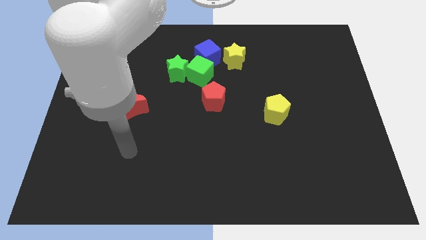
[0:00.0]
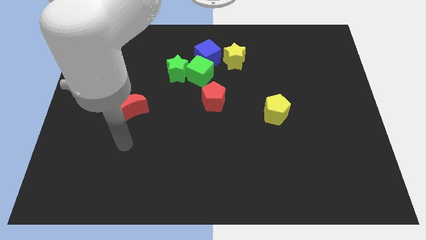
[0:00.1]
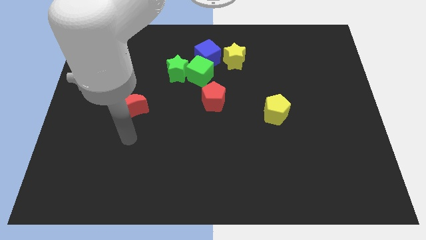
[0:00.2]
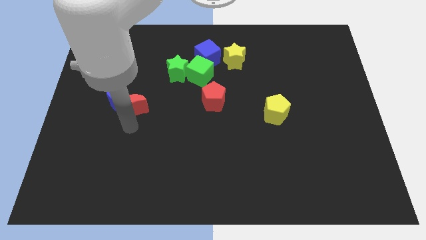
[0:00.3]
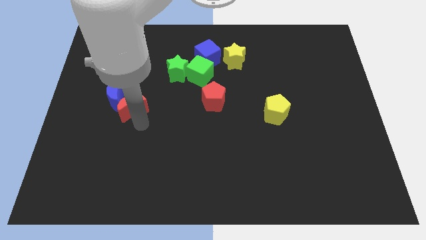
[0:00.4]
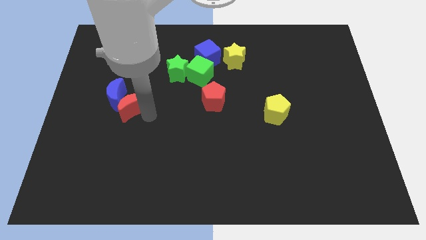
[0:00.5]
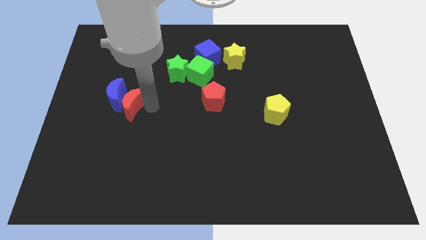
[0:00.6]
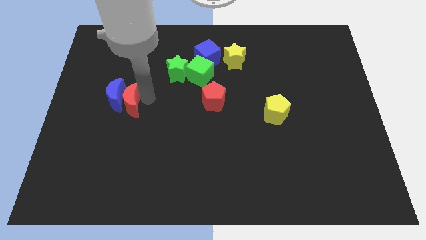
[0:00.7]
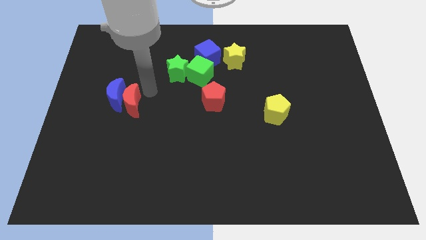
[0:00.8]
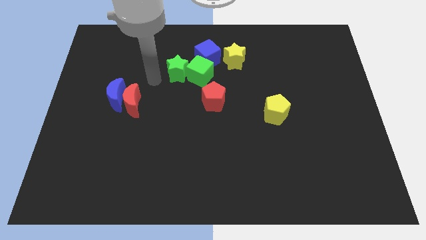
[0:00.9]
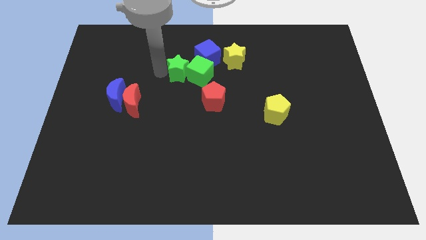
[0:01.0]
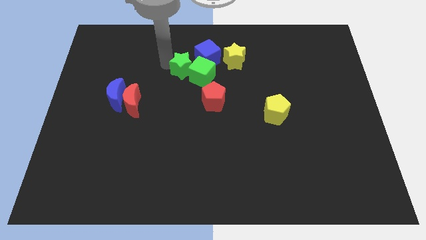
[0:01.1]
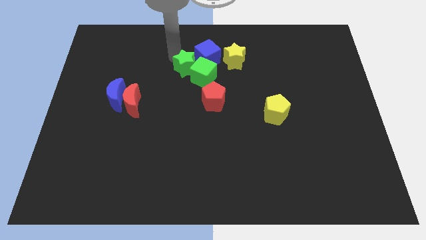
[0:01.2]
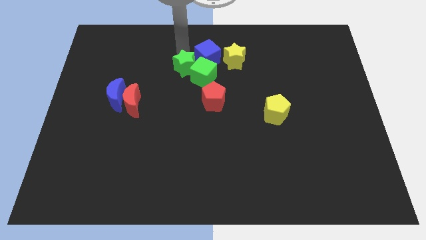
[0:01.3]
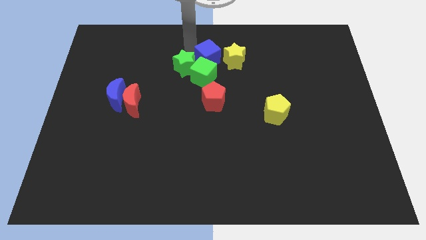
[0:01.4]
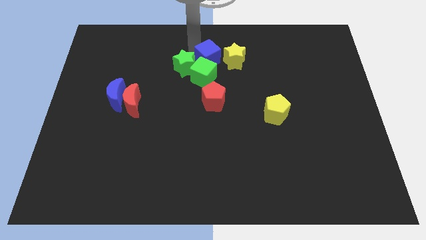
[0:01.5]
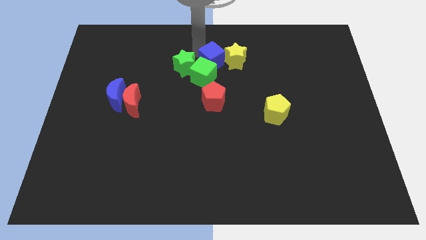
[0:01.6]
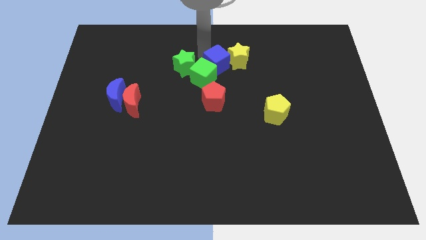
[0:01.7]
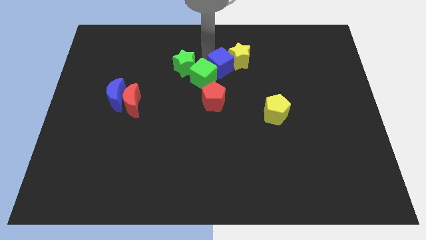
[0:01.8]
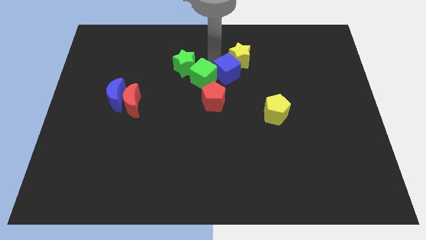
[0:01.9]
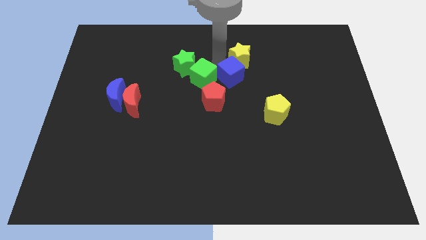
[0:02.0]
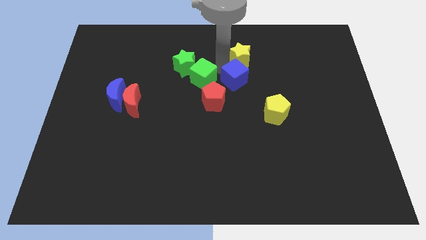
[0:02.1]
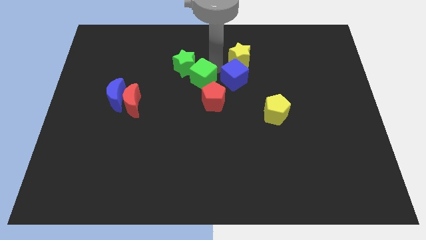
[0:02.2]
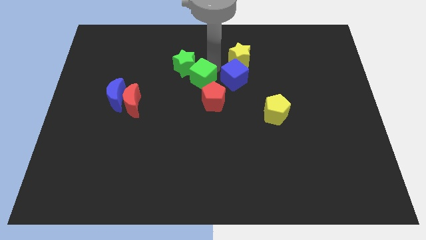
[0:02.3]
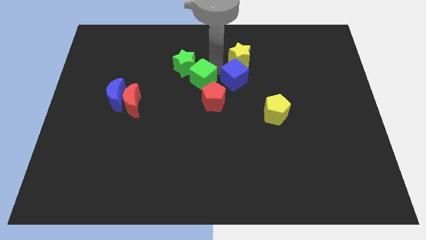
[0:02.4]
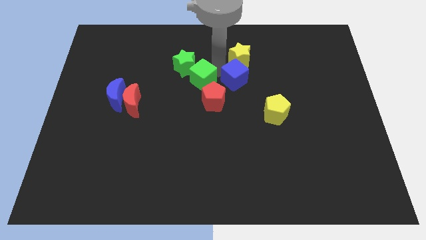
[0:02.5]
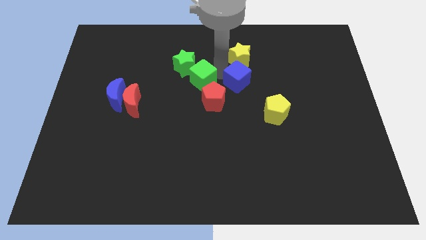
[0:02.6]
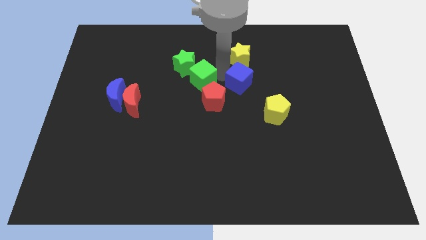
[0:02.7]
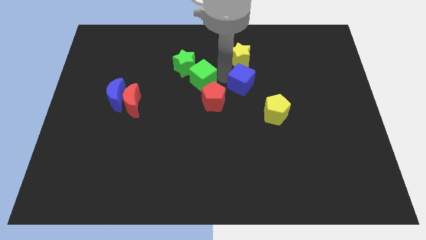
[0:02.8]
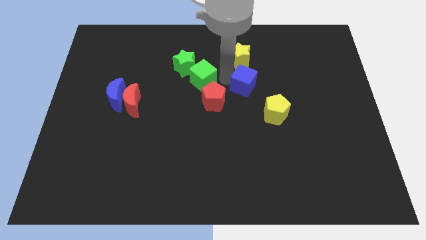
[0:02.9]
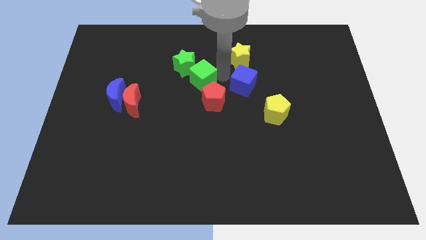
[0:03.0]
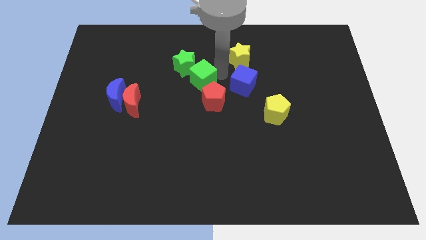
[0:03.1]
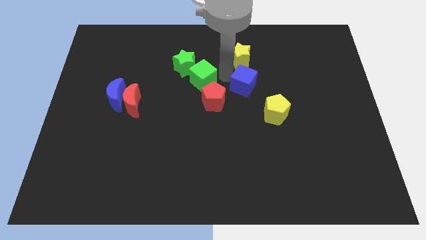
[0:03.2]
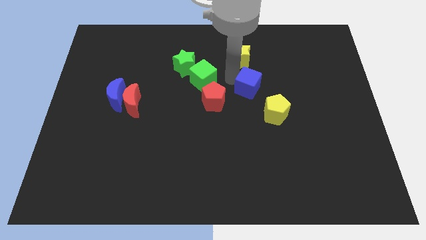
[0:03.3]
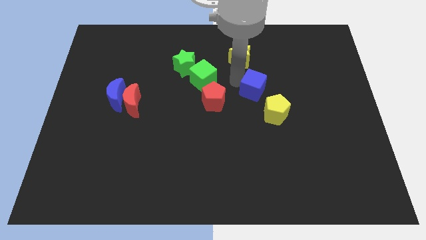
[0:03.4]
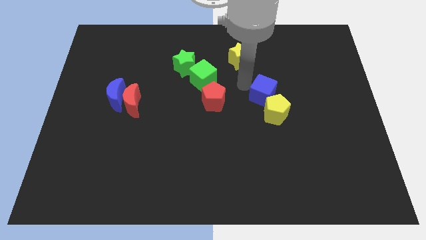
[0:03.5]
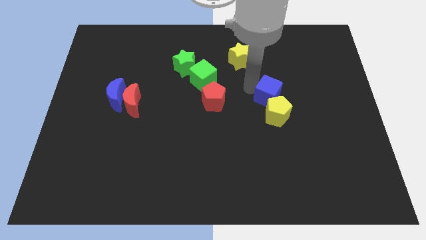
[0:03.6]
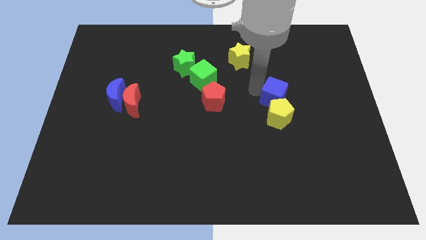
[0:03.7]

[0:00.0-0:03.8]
slide the blue cube downwards and then to the right

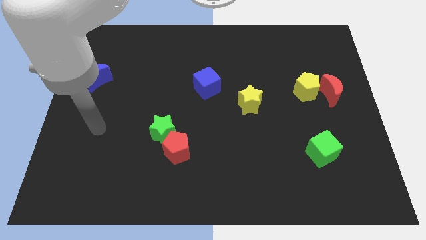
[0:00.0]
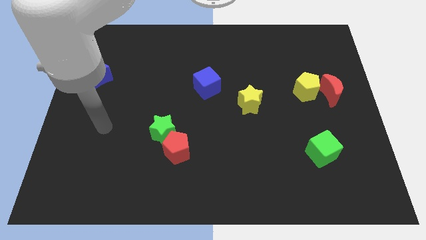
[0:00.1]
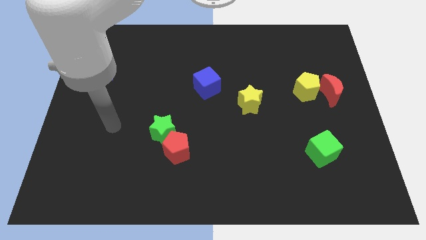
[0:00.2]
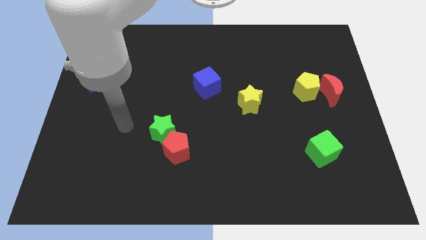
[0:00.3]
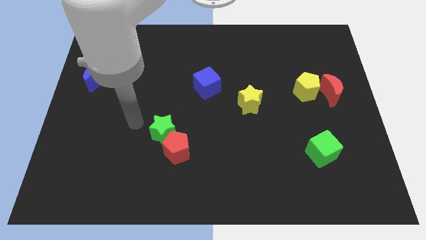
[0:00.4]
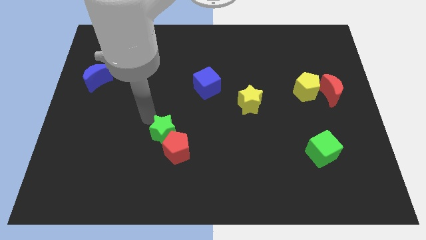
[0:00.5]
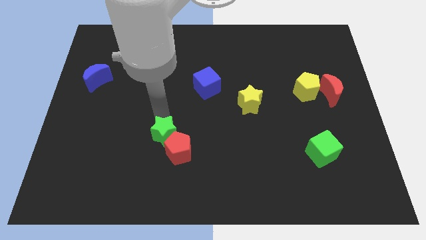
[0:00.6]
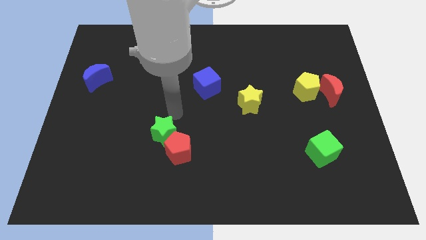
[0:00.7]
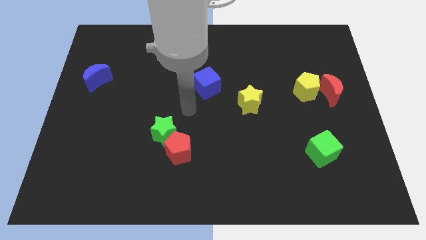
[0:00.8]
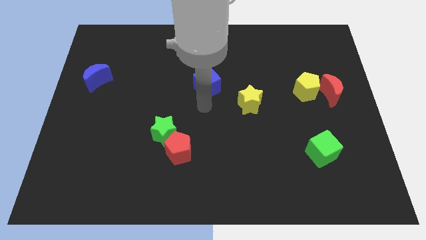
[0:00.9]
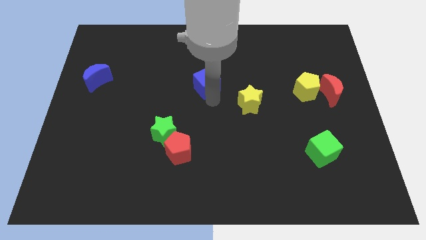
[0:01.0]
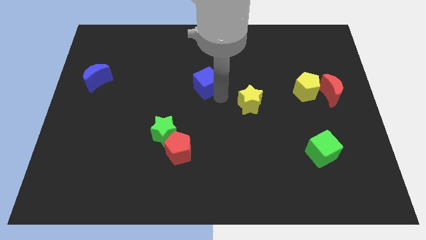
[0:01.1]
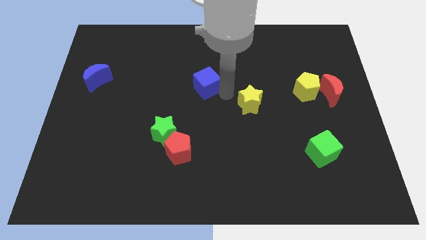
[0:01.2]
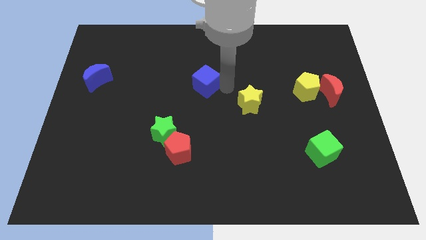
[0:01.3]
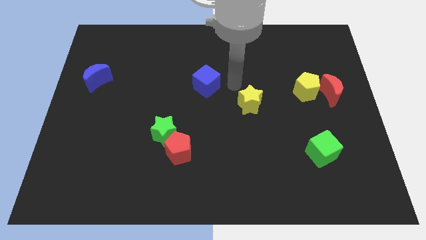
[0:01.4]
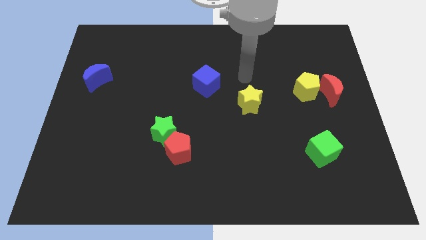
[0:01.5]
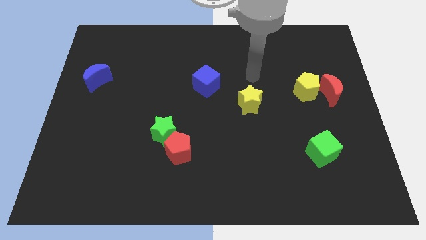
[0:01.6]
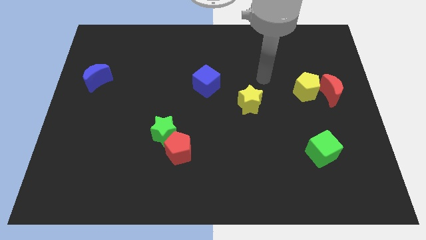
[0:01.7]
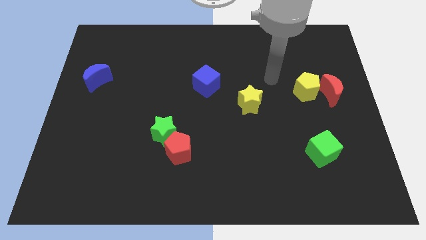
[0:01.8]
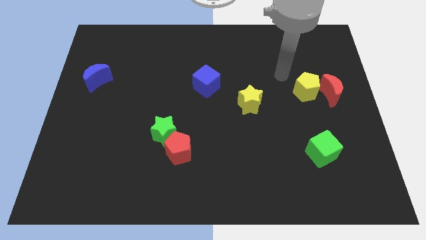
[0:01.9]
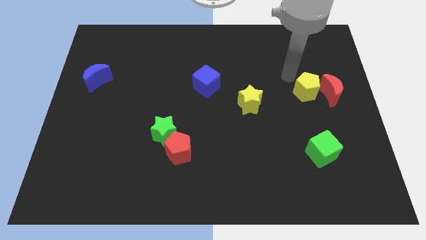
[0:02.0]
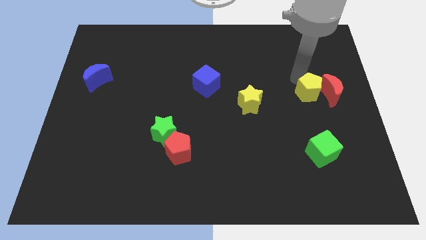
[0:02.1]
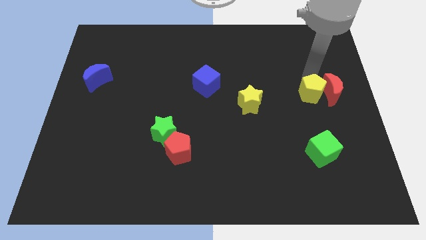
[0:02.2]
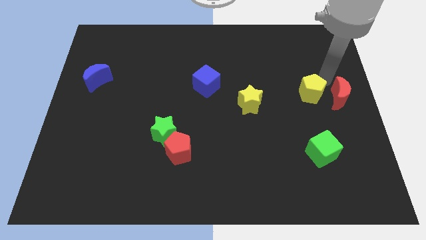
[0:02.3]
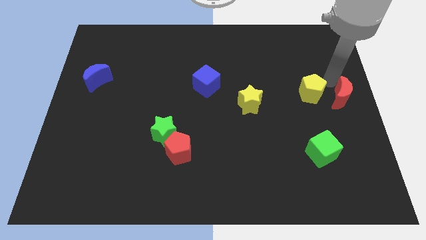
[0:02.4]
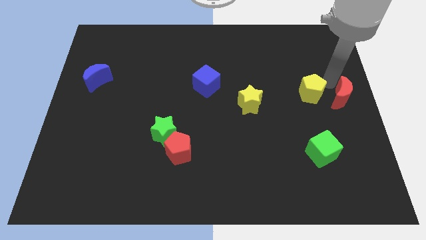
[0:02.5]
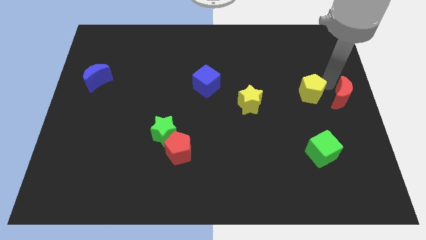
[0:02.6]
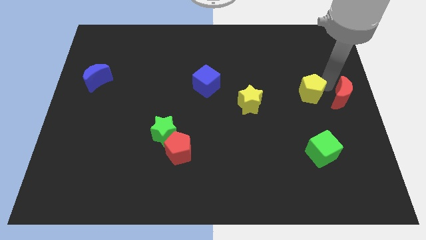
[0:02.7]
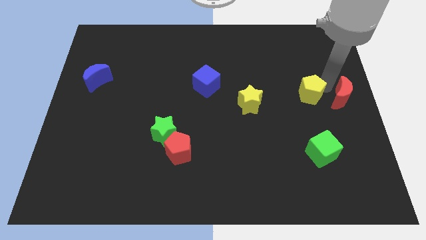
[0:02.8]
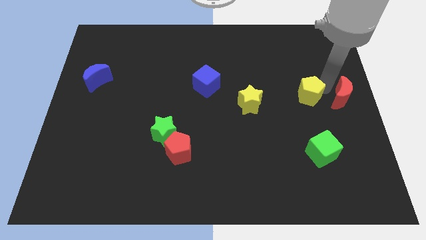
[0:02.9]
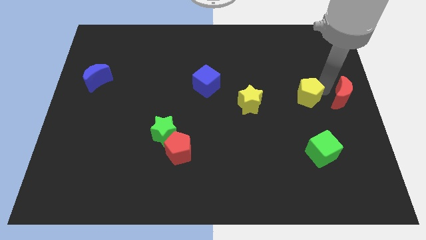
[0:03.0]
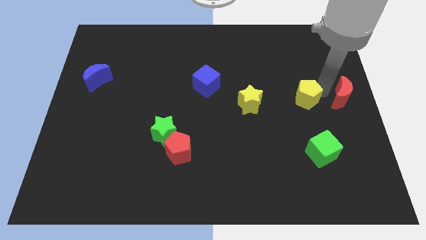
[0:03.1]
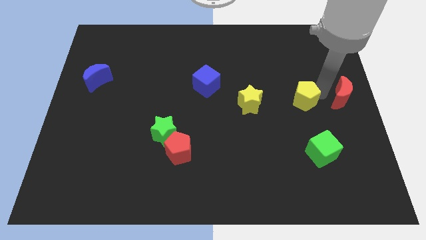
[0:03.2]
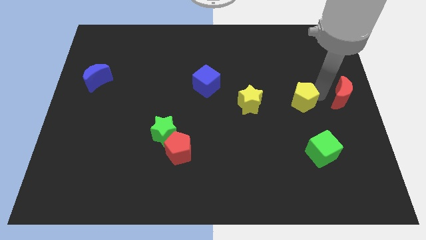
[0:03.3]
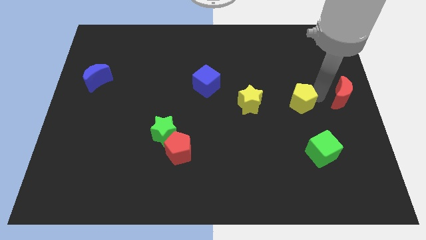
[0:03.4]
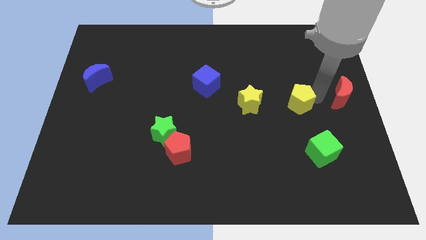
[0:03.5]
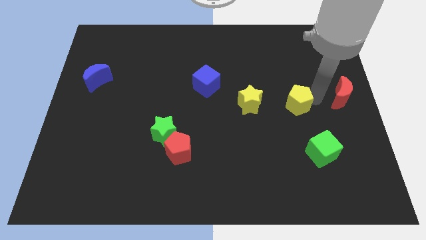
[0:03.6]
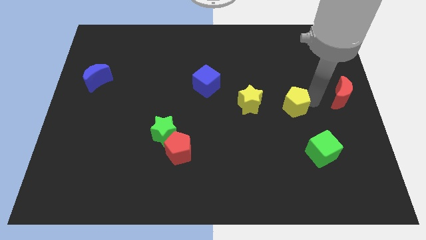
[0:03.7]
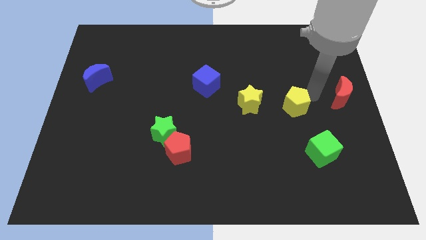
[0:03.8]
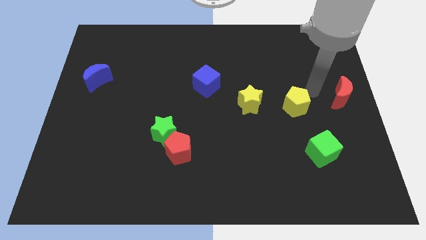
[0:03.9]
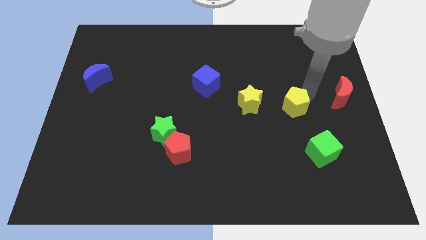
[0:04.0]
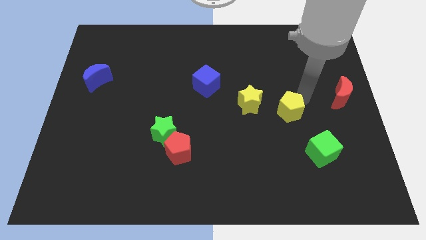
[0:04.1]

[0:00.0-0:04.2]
move the yellow pentagon a bit down and to the left diagonally
